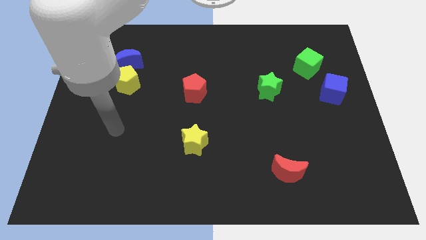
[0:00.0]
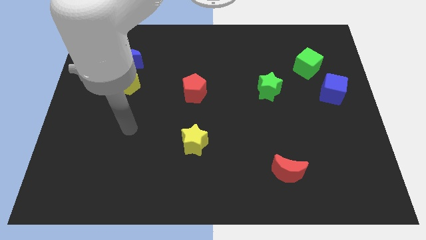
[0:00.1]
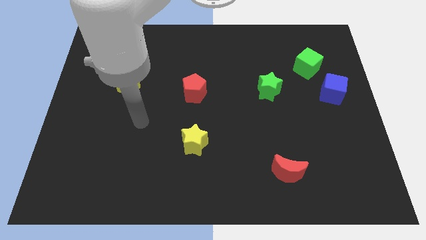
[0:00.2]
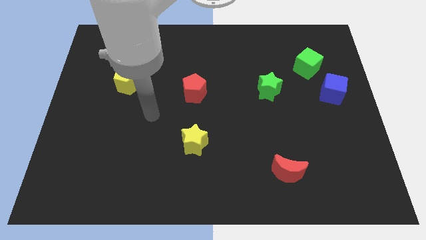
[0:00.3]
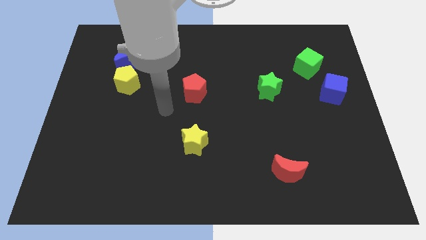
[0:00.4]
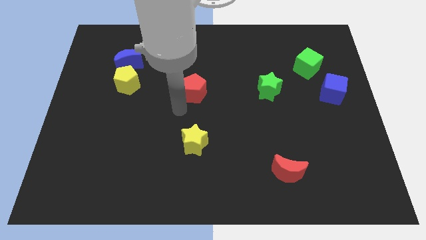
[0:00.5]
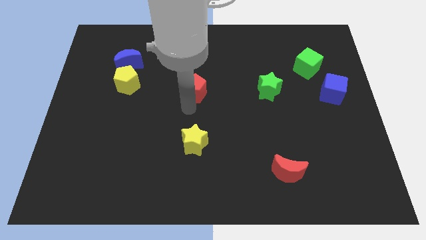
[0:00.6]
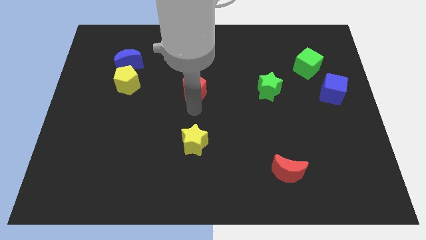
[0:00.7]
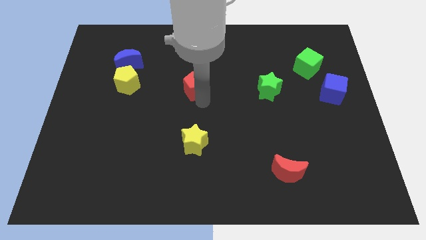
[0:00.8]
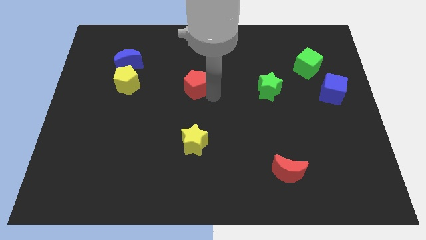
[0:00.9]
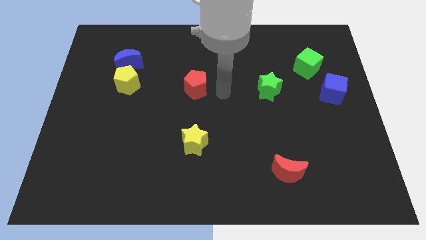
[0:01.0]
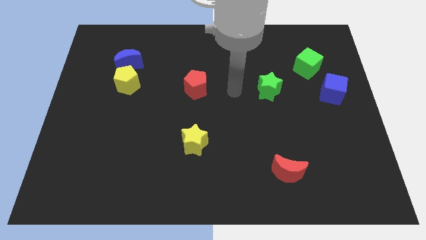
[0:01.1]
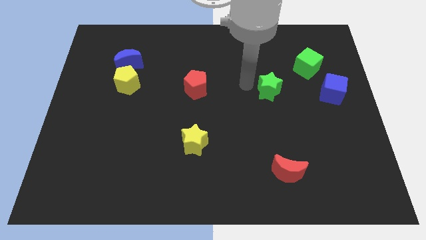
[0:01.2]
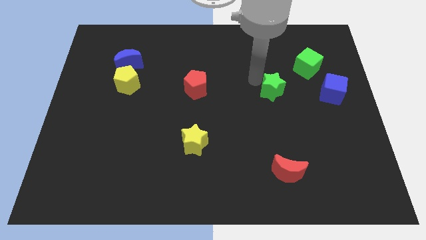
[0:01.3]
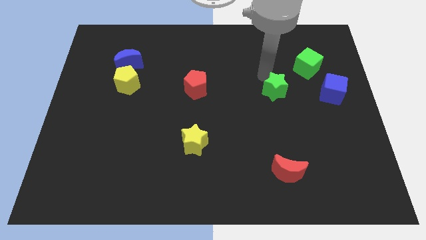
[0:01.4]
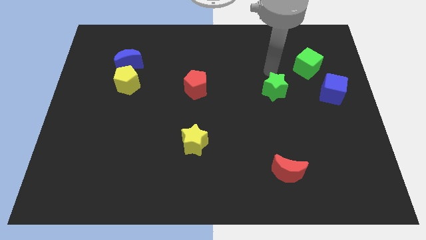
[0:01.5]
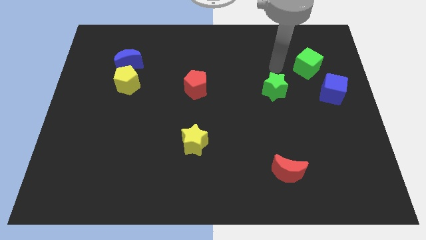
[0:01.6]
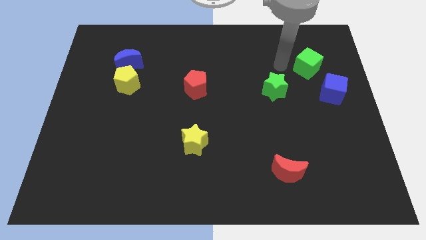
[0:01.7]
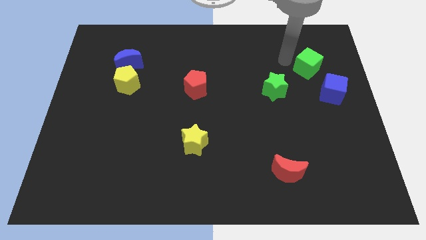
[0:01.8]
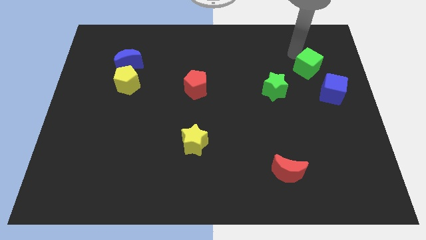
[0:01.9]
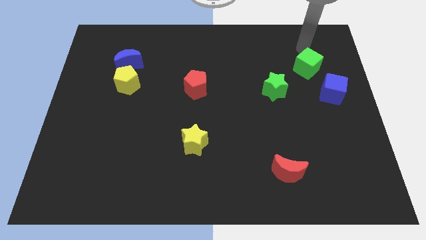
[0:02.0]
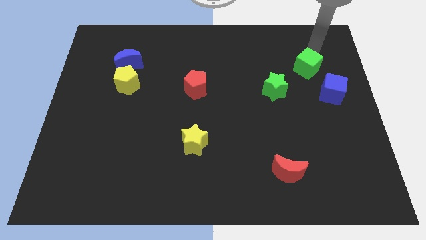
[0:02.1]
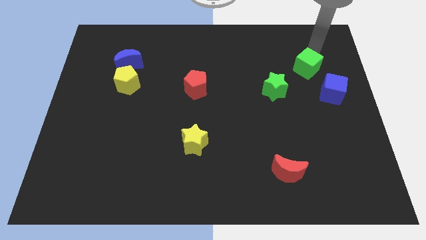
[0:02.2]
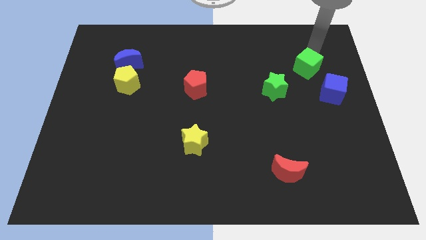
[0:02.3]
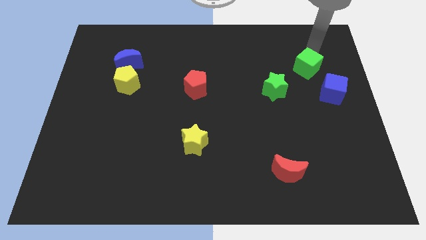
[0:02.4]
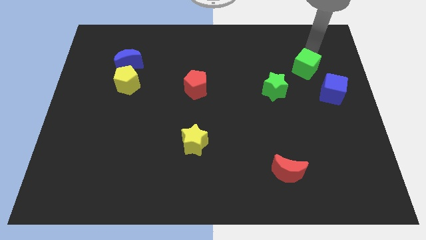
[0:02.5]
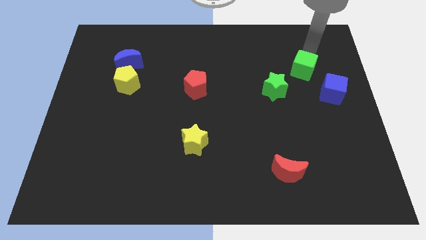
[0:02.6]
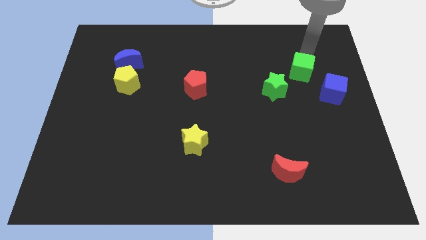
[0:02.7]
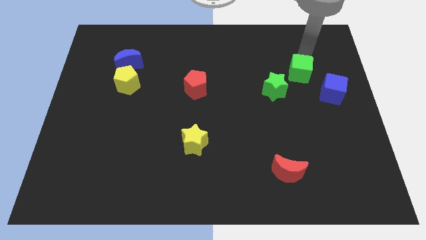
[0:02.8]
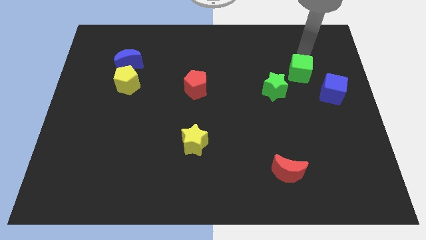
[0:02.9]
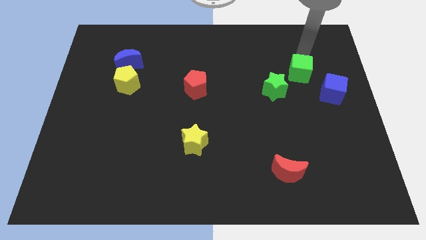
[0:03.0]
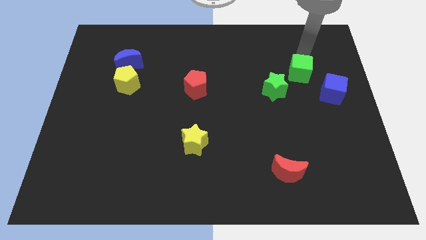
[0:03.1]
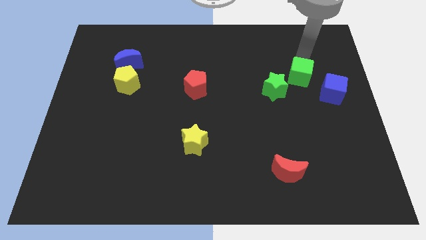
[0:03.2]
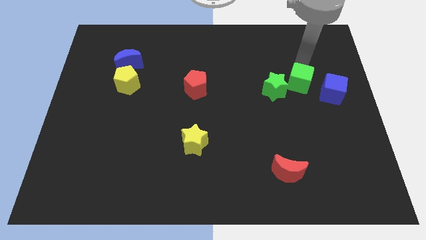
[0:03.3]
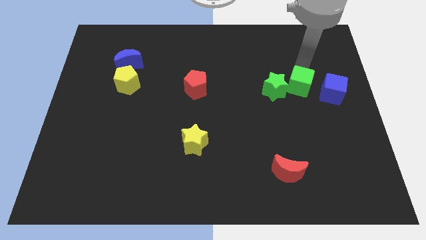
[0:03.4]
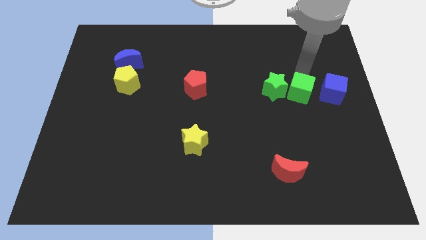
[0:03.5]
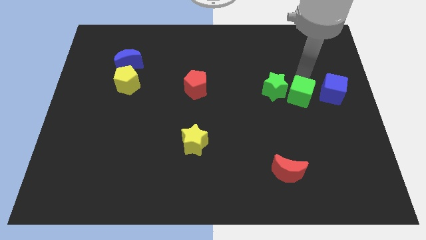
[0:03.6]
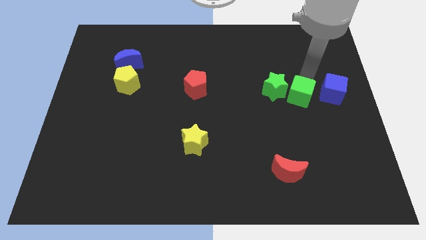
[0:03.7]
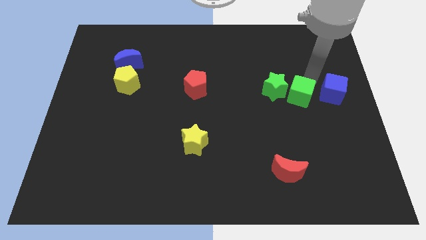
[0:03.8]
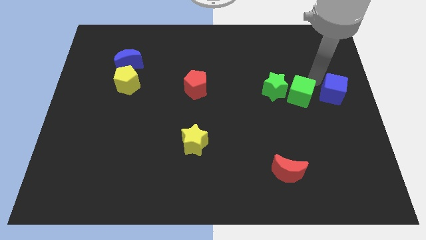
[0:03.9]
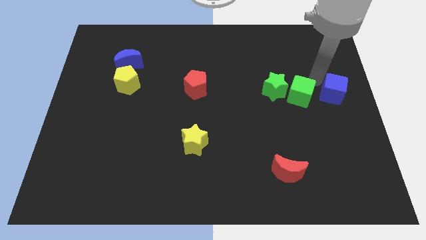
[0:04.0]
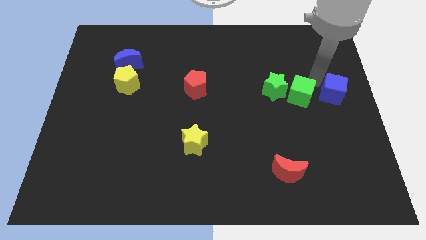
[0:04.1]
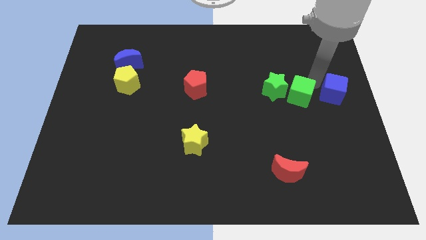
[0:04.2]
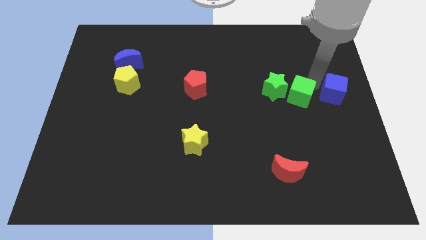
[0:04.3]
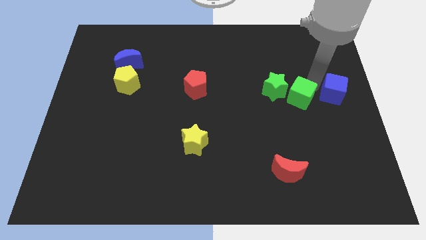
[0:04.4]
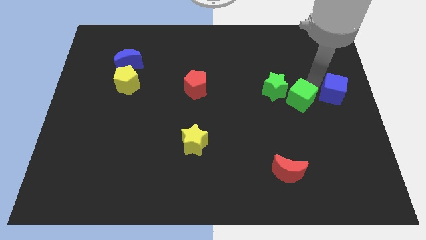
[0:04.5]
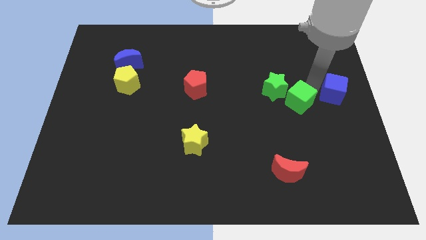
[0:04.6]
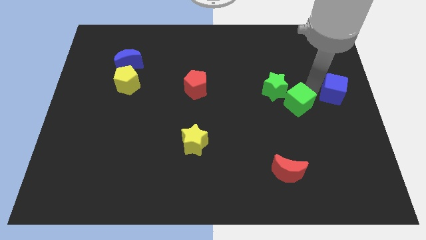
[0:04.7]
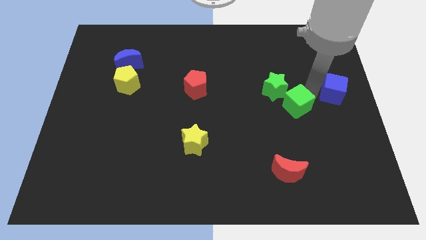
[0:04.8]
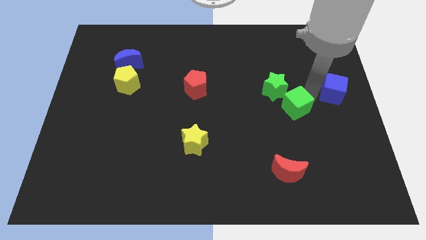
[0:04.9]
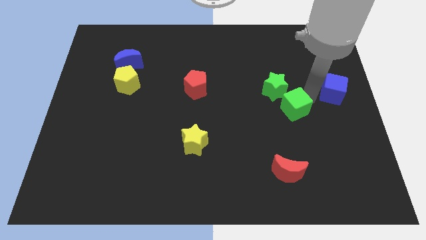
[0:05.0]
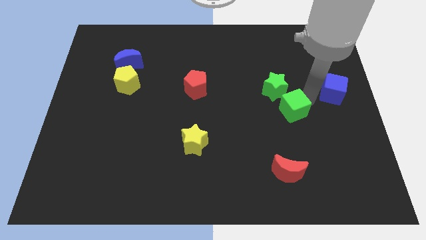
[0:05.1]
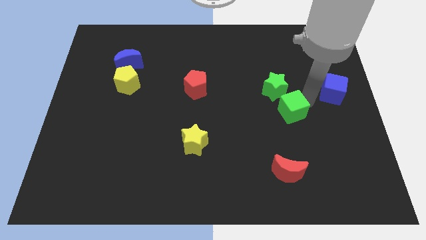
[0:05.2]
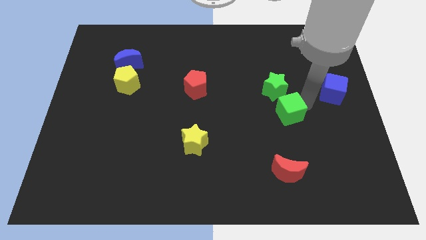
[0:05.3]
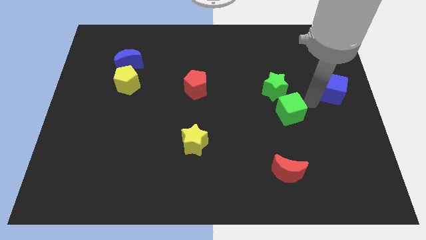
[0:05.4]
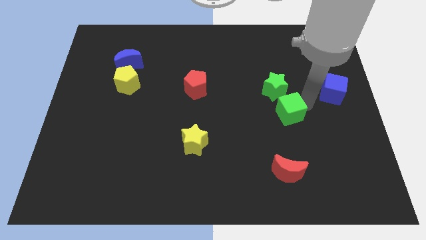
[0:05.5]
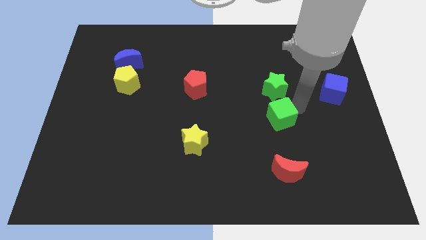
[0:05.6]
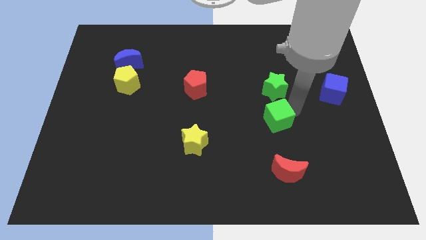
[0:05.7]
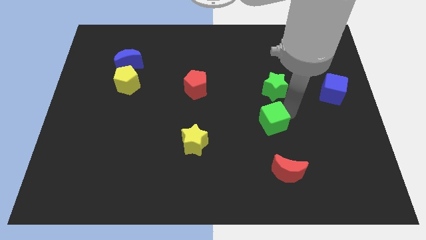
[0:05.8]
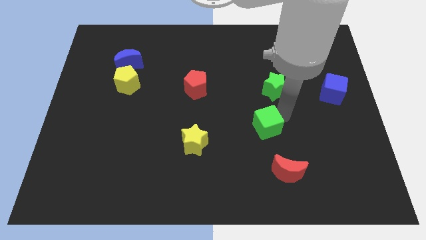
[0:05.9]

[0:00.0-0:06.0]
slide the green cube diagonally down and left

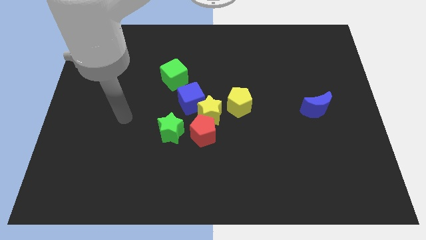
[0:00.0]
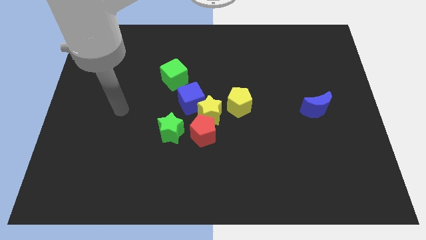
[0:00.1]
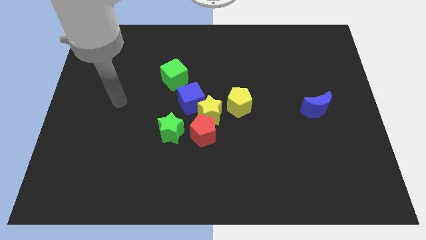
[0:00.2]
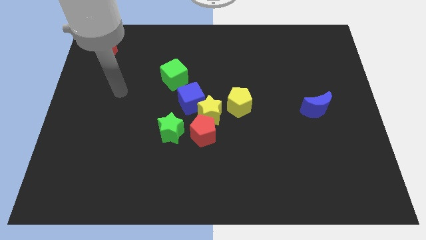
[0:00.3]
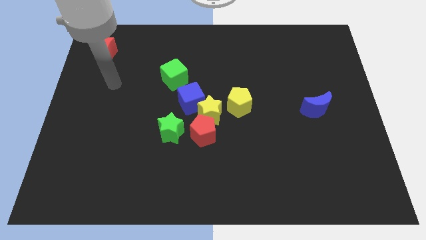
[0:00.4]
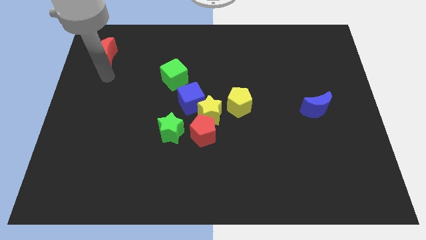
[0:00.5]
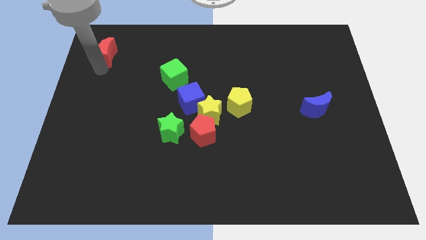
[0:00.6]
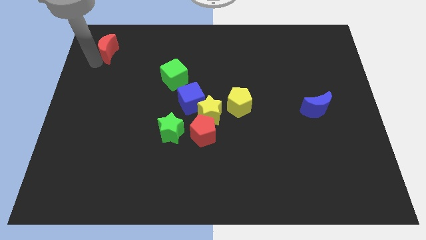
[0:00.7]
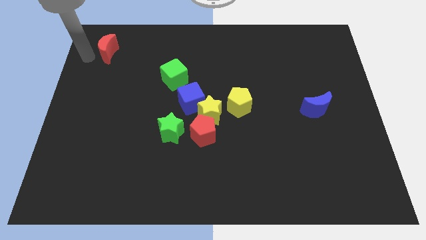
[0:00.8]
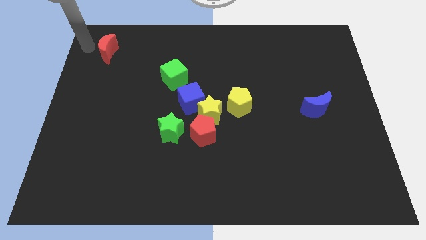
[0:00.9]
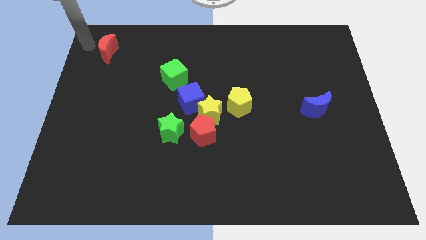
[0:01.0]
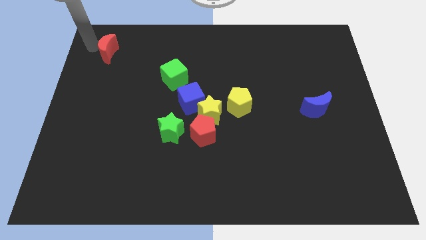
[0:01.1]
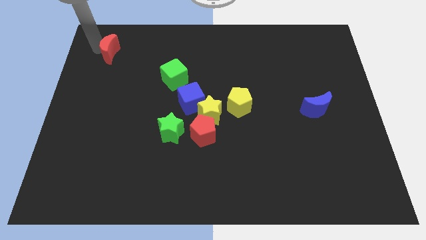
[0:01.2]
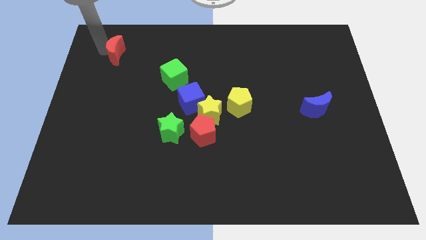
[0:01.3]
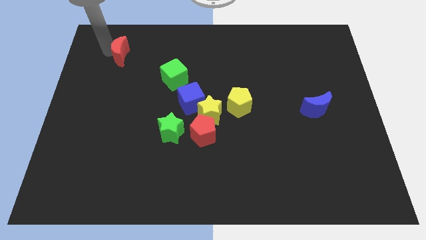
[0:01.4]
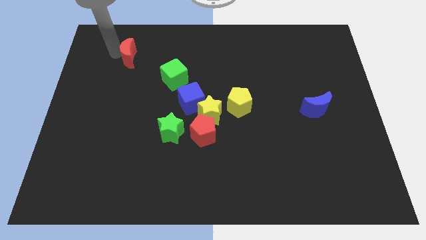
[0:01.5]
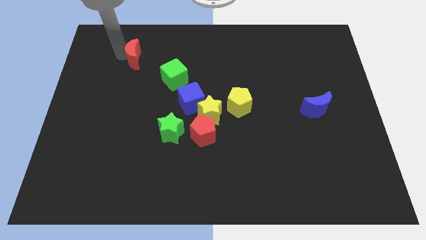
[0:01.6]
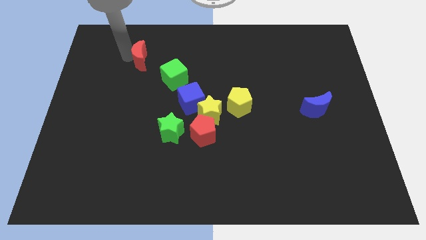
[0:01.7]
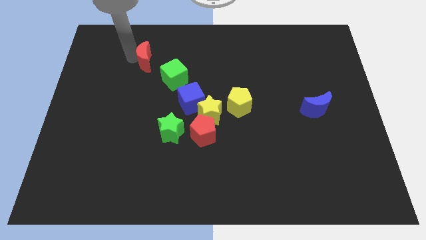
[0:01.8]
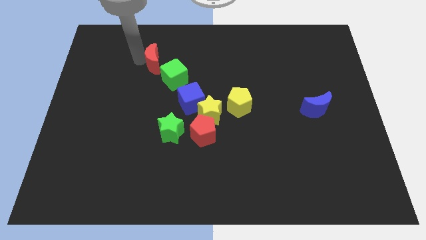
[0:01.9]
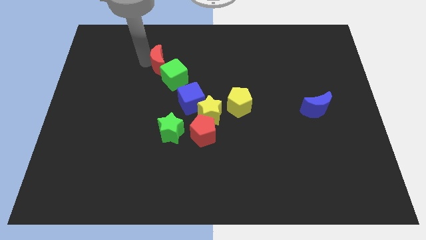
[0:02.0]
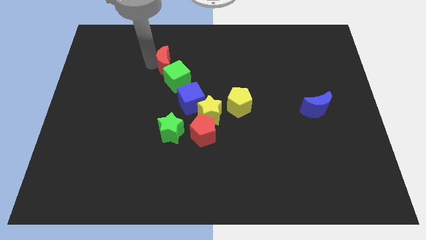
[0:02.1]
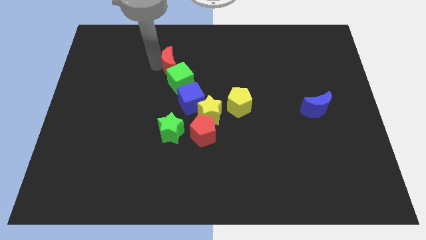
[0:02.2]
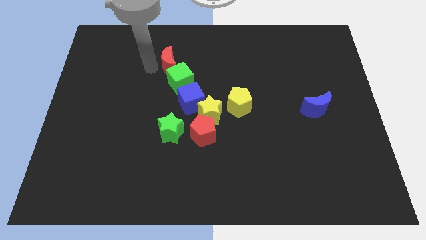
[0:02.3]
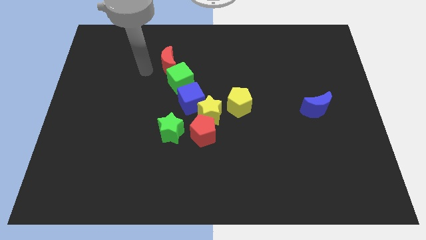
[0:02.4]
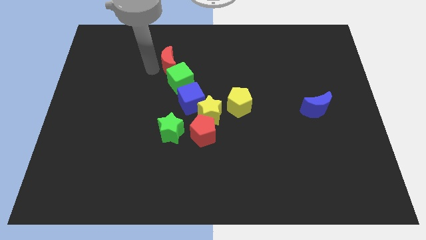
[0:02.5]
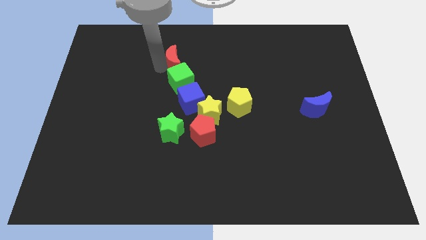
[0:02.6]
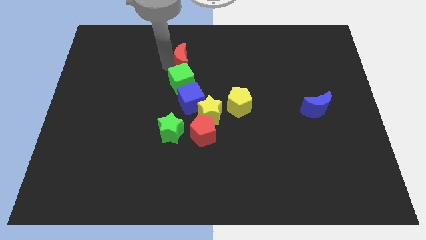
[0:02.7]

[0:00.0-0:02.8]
push the red moon right
